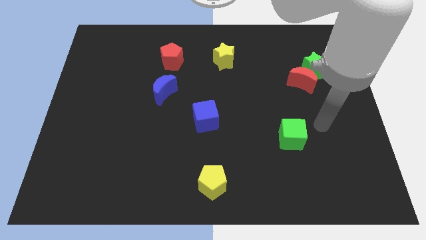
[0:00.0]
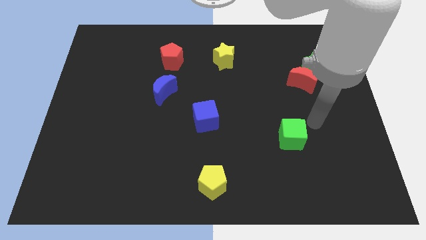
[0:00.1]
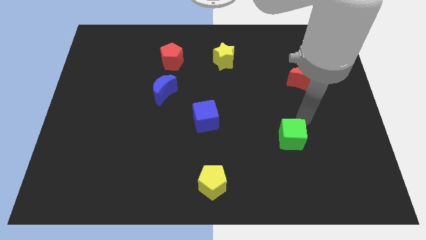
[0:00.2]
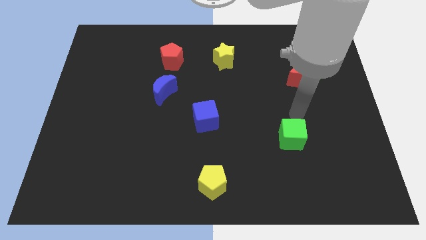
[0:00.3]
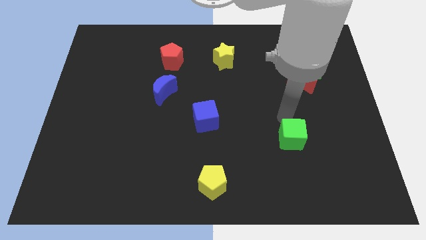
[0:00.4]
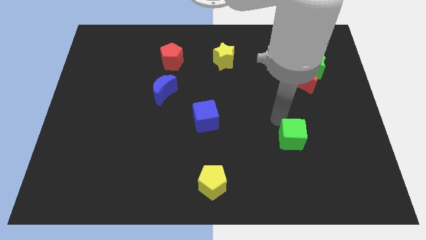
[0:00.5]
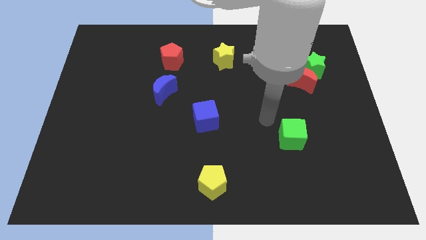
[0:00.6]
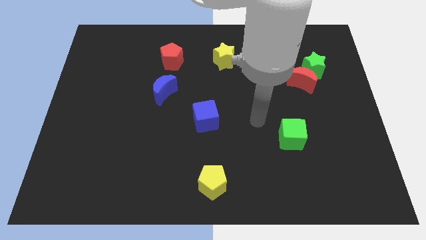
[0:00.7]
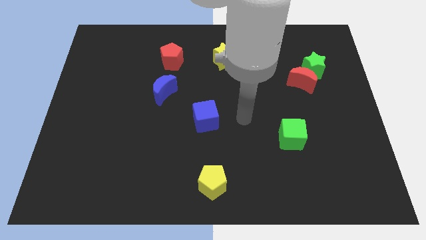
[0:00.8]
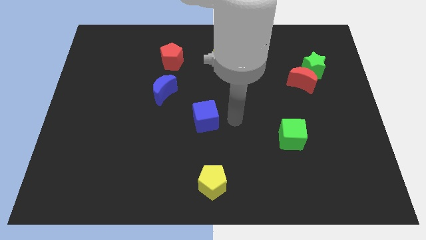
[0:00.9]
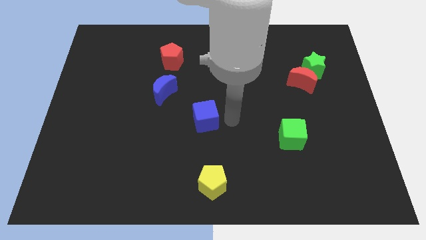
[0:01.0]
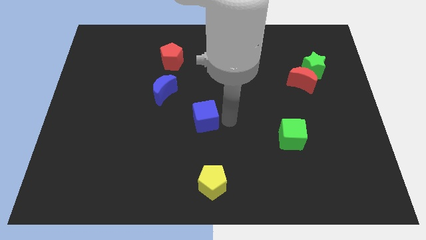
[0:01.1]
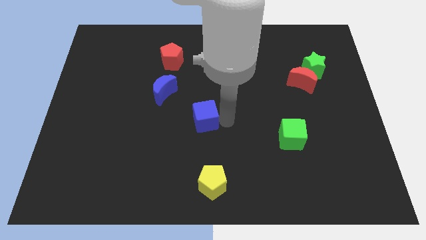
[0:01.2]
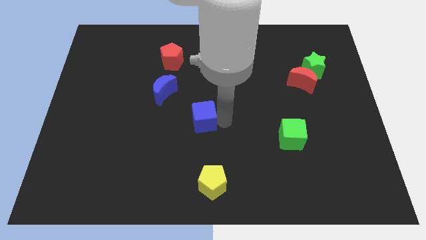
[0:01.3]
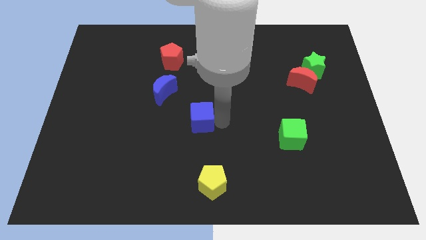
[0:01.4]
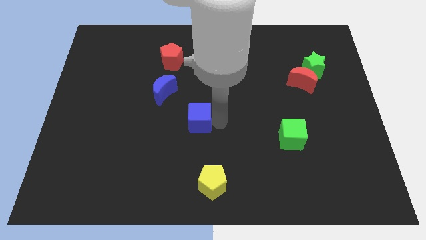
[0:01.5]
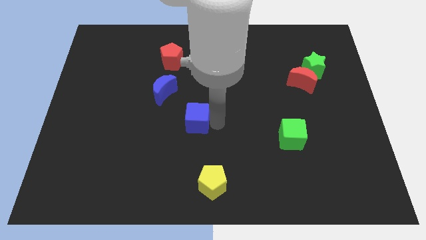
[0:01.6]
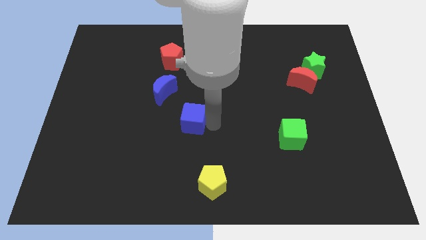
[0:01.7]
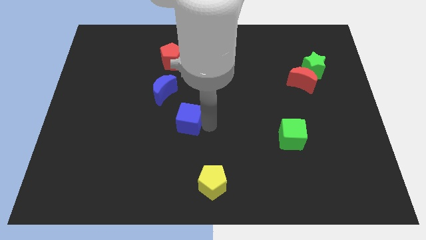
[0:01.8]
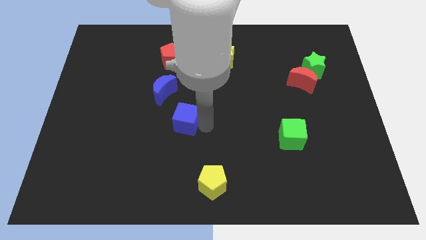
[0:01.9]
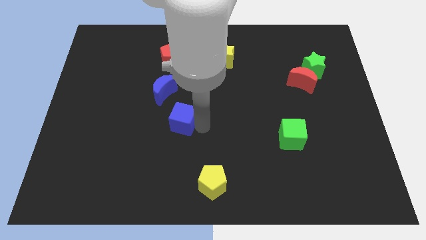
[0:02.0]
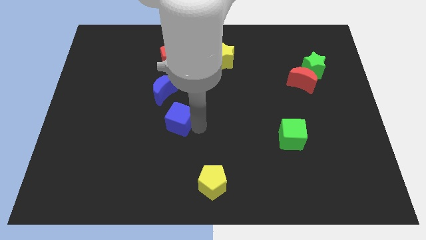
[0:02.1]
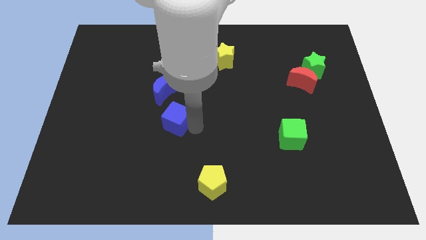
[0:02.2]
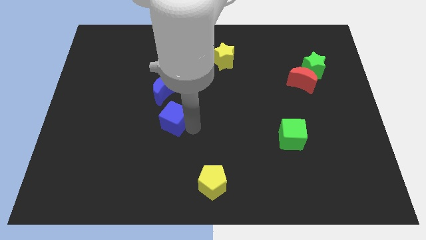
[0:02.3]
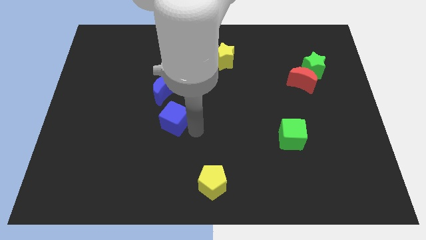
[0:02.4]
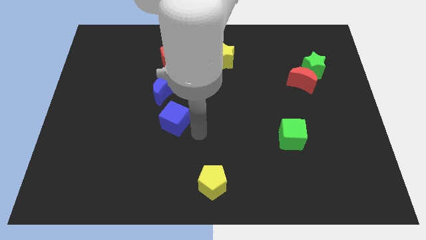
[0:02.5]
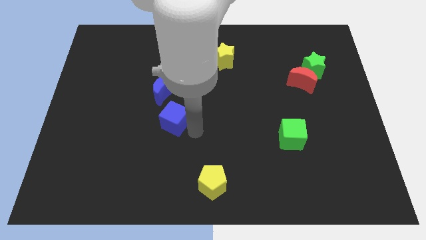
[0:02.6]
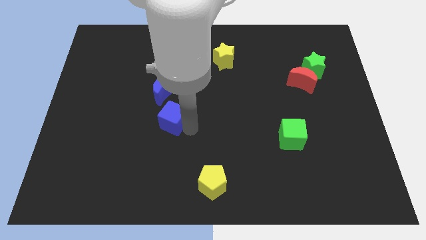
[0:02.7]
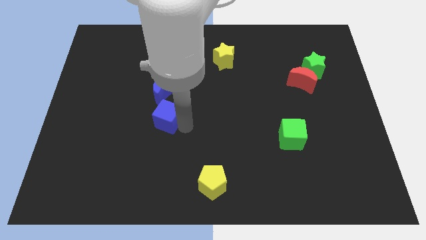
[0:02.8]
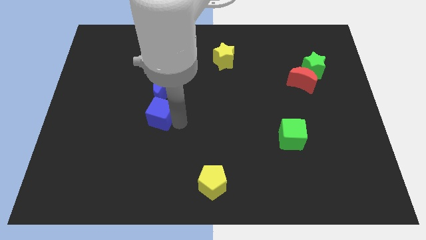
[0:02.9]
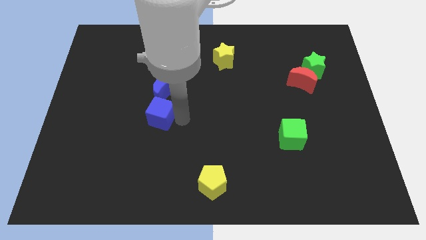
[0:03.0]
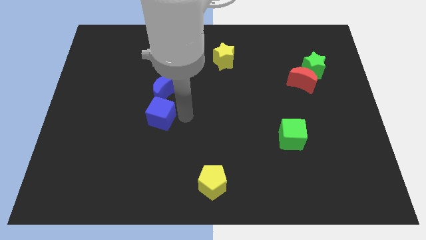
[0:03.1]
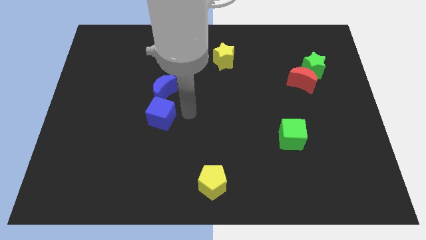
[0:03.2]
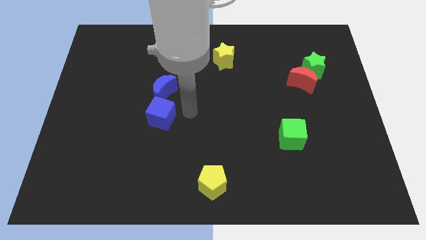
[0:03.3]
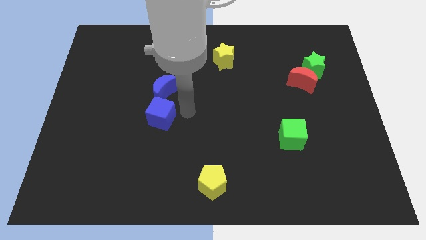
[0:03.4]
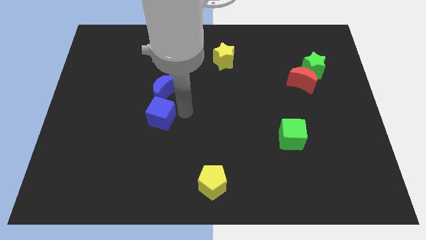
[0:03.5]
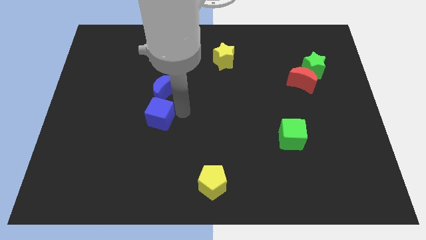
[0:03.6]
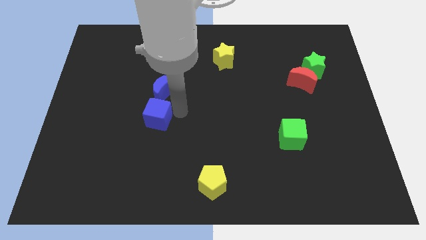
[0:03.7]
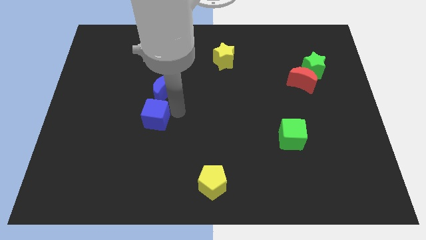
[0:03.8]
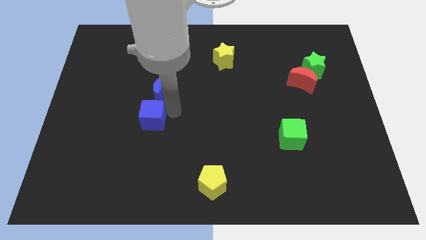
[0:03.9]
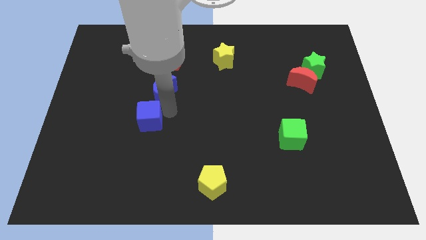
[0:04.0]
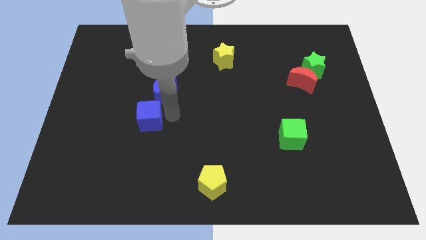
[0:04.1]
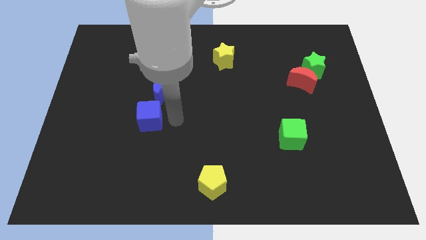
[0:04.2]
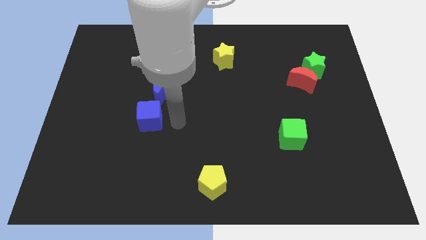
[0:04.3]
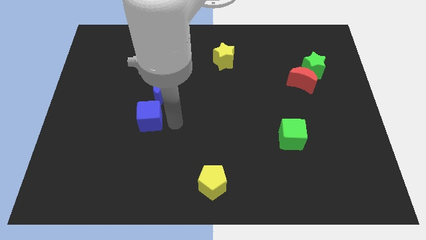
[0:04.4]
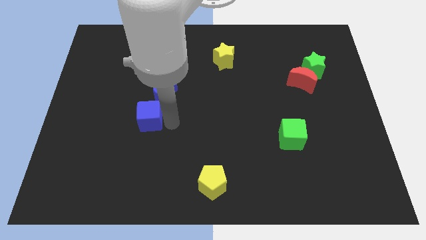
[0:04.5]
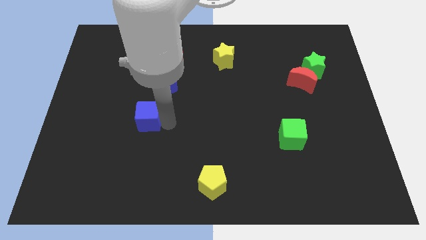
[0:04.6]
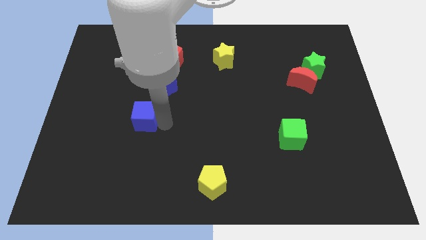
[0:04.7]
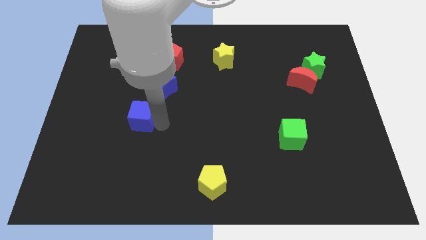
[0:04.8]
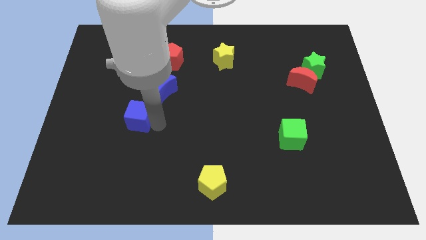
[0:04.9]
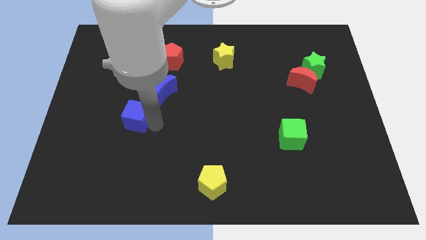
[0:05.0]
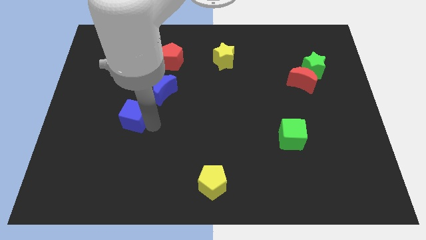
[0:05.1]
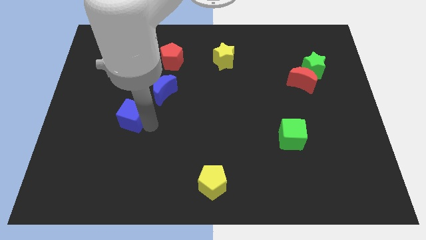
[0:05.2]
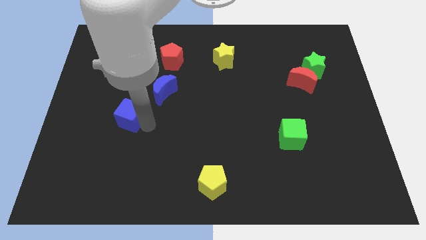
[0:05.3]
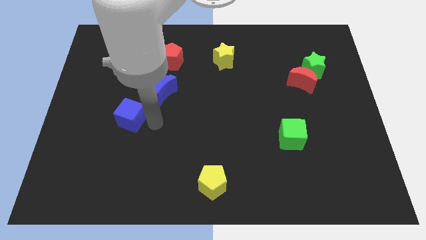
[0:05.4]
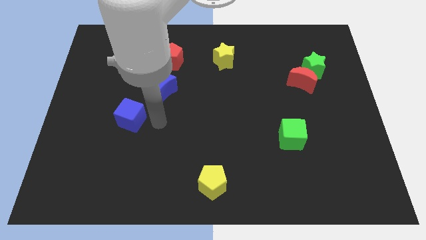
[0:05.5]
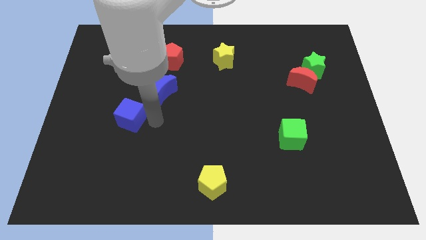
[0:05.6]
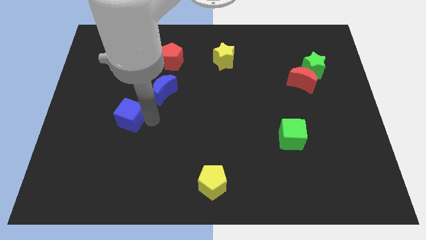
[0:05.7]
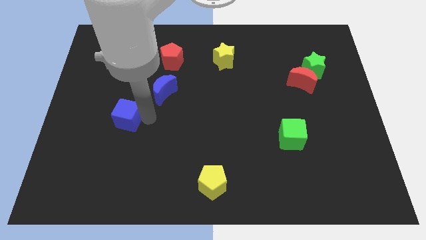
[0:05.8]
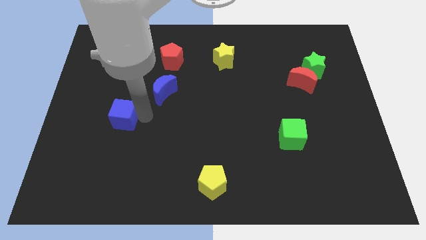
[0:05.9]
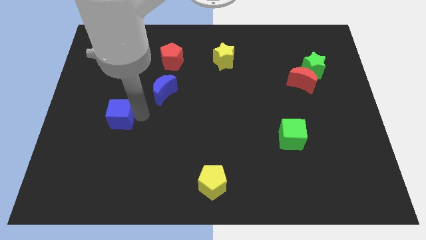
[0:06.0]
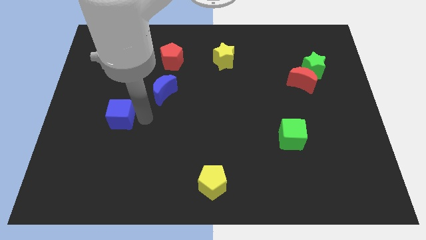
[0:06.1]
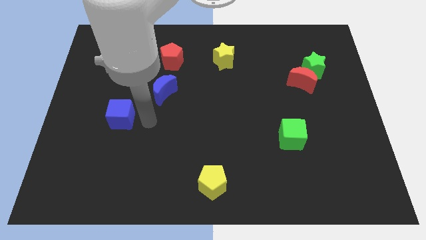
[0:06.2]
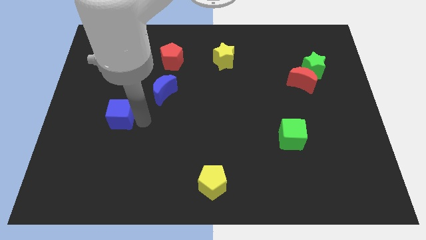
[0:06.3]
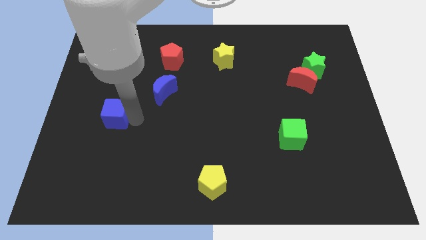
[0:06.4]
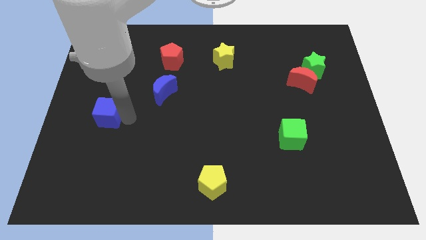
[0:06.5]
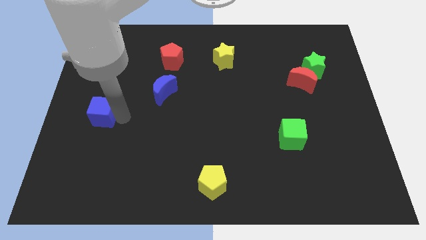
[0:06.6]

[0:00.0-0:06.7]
put the blue cube to the left side
